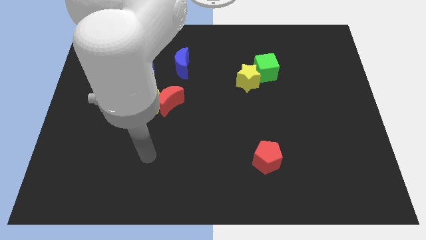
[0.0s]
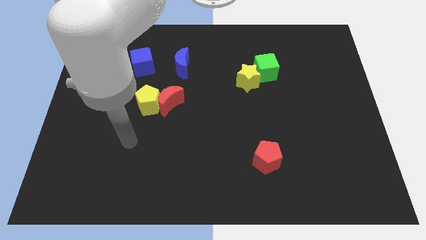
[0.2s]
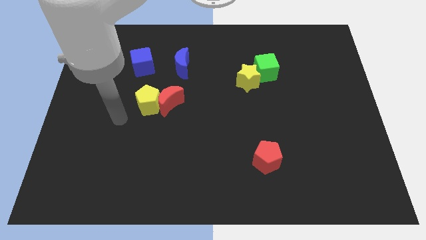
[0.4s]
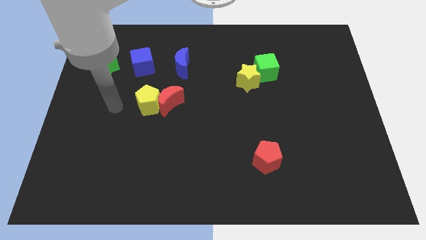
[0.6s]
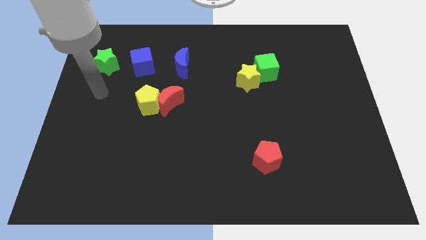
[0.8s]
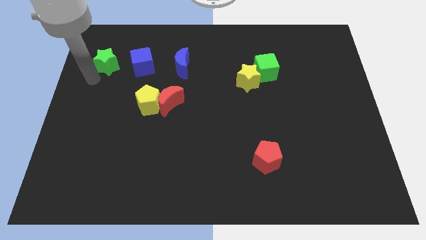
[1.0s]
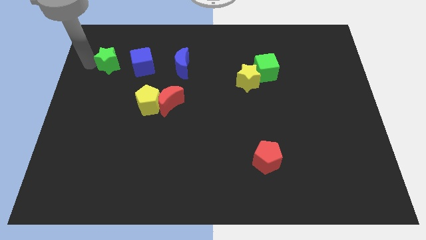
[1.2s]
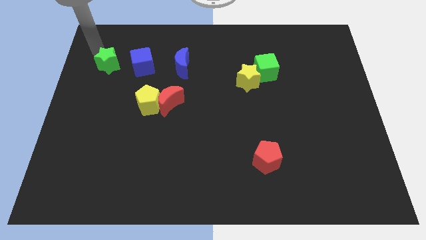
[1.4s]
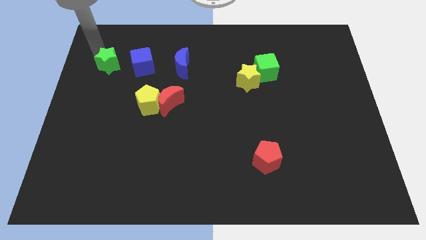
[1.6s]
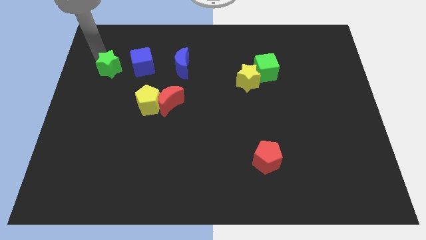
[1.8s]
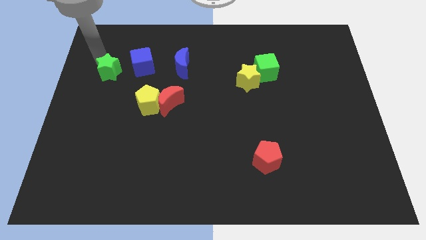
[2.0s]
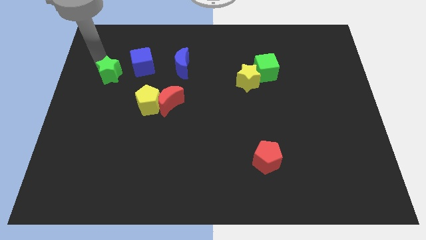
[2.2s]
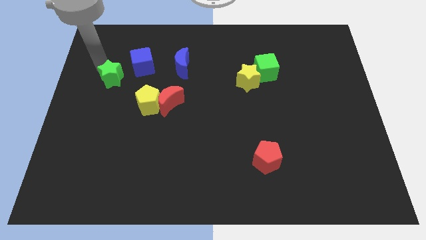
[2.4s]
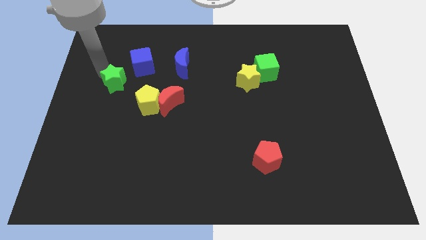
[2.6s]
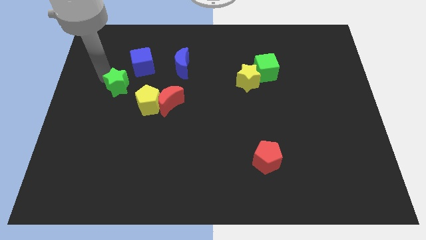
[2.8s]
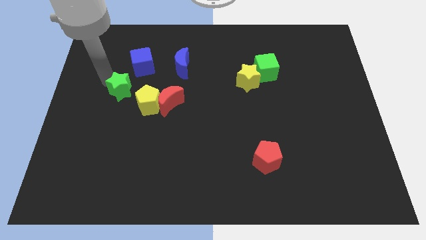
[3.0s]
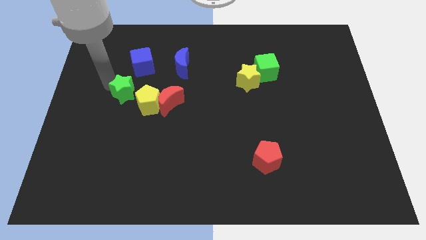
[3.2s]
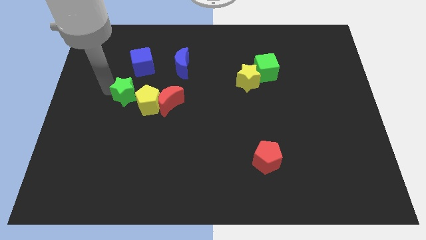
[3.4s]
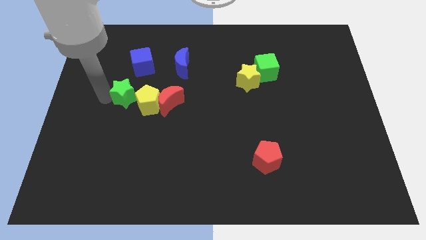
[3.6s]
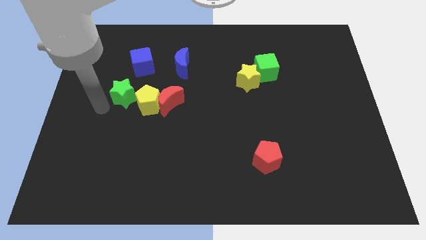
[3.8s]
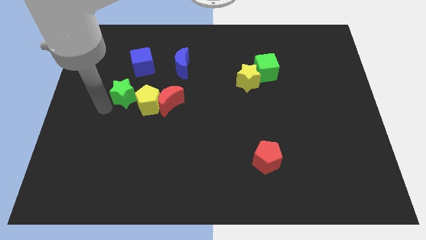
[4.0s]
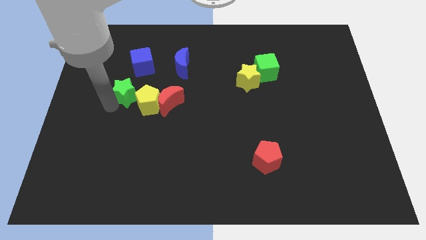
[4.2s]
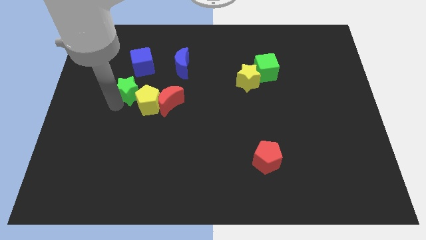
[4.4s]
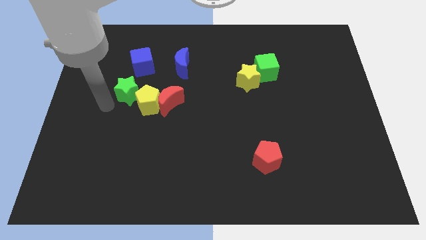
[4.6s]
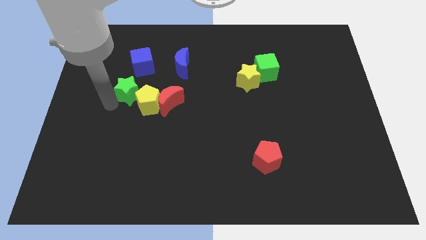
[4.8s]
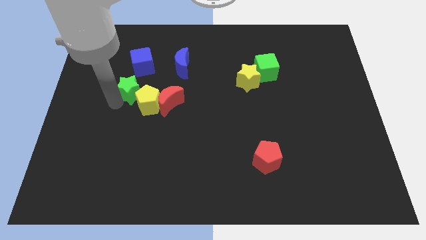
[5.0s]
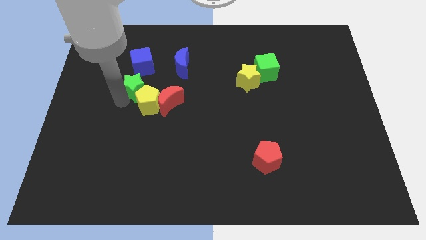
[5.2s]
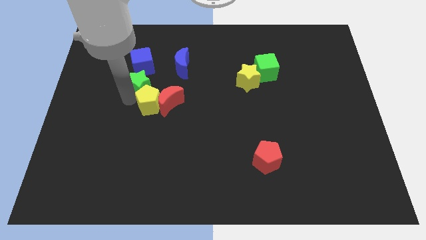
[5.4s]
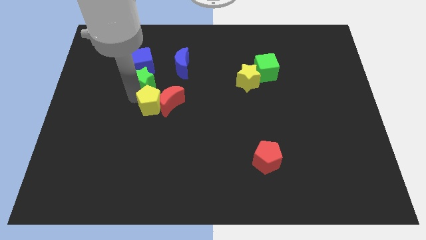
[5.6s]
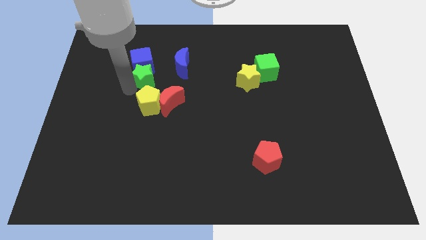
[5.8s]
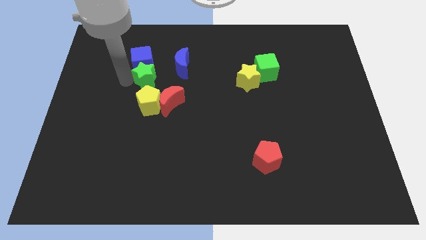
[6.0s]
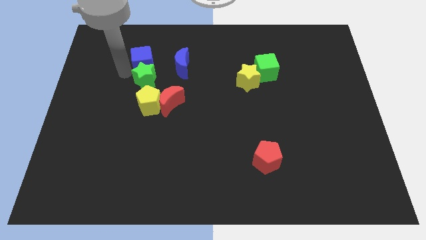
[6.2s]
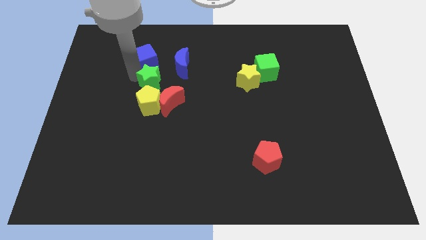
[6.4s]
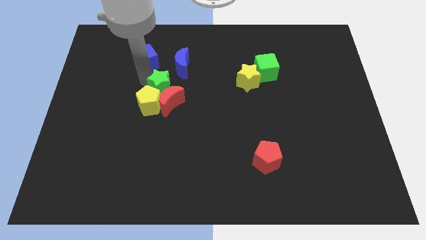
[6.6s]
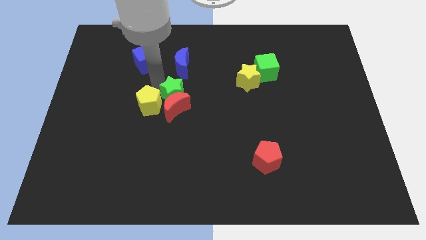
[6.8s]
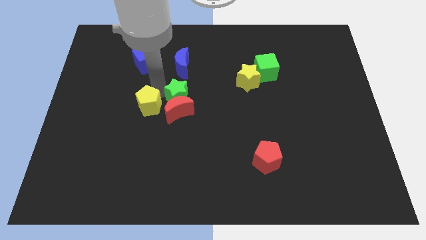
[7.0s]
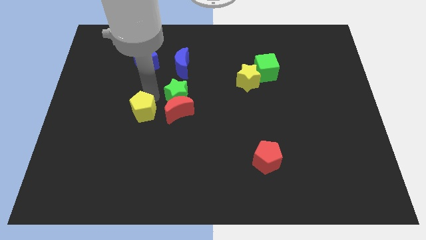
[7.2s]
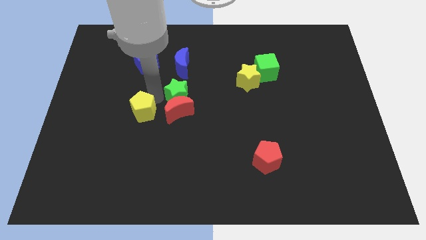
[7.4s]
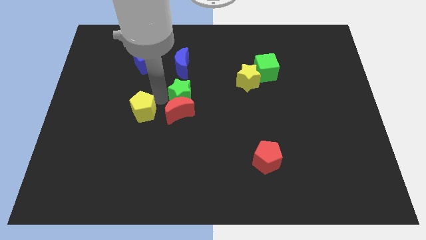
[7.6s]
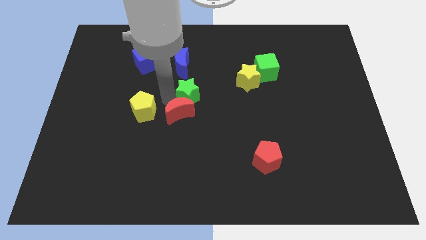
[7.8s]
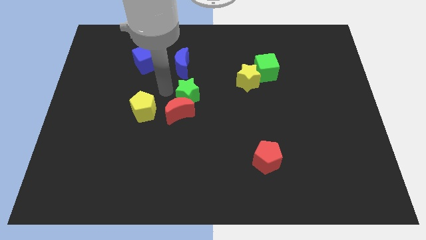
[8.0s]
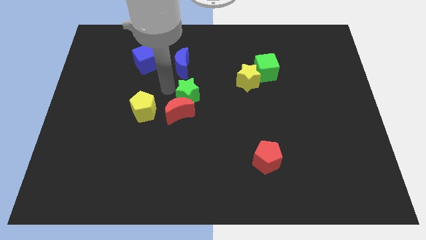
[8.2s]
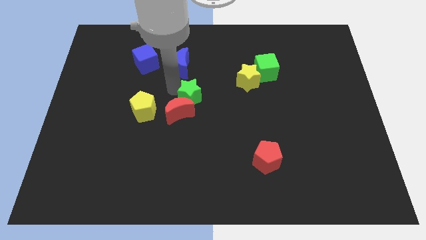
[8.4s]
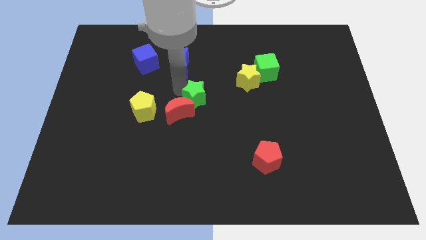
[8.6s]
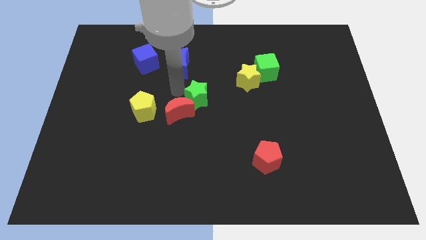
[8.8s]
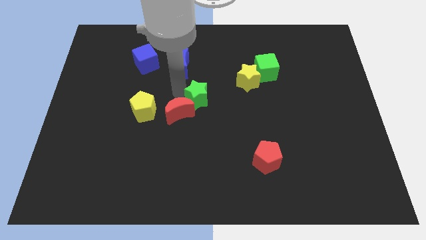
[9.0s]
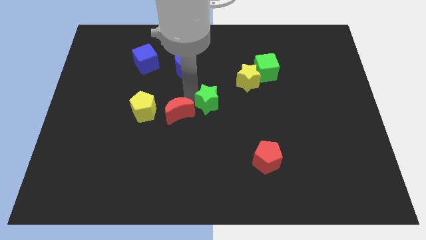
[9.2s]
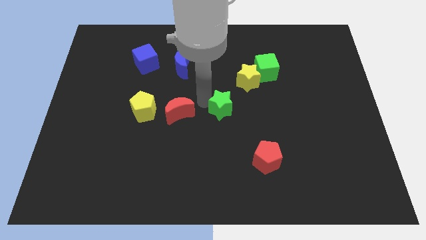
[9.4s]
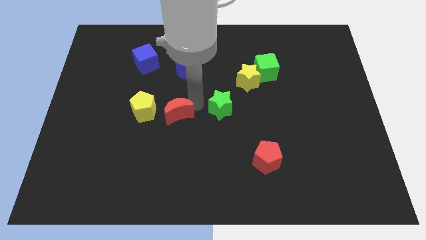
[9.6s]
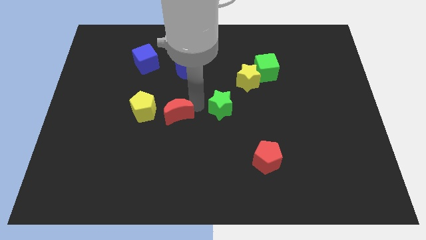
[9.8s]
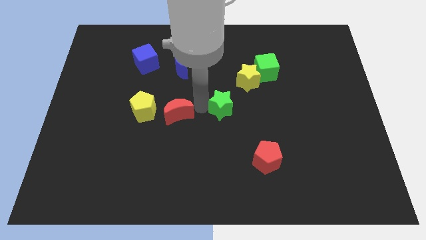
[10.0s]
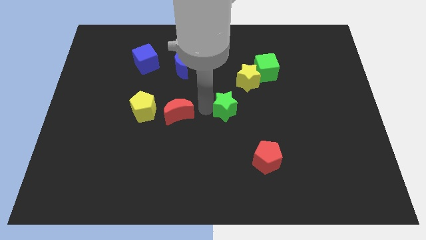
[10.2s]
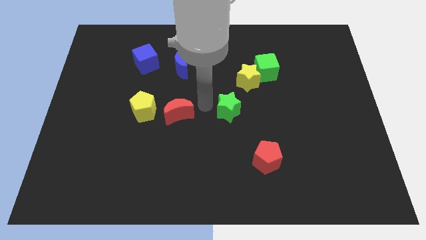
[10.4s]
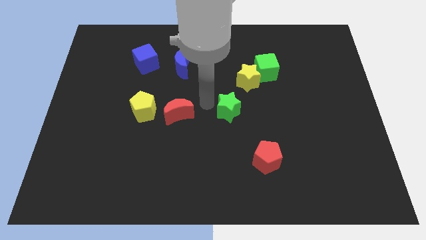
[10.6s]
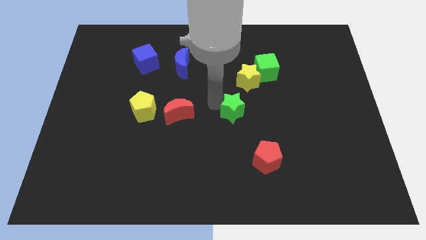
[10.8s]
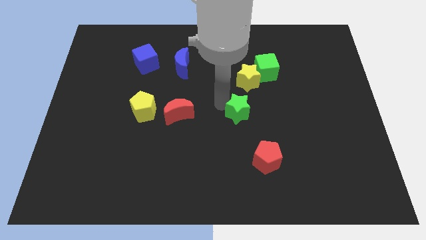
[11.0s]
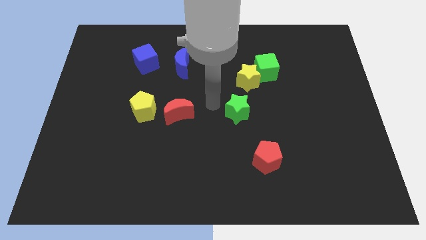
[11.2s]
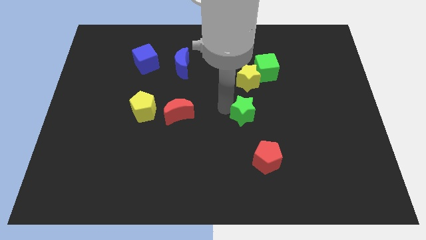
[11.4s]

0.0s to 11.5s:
move the green star above the red pentagon

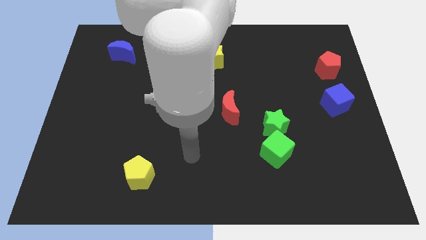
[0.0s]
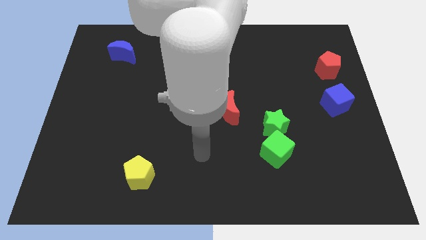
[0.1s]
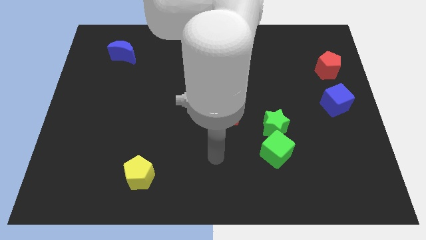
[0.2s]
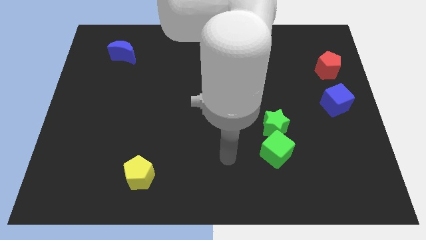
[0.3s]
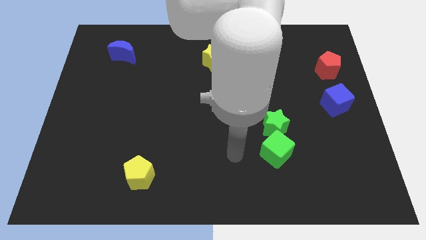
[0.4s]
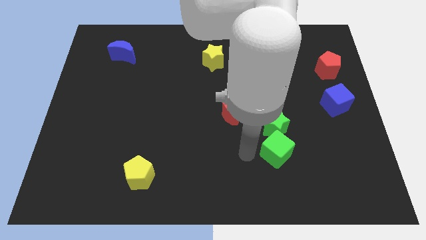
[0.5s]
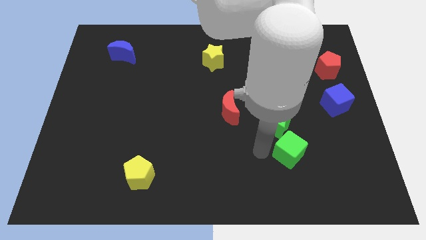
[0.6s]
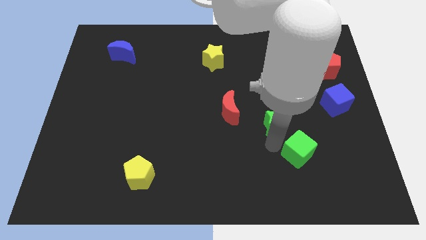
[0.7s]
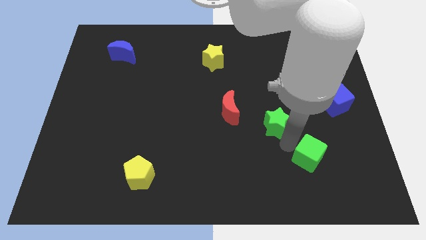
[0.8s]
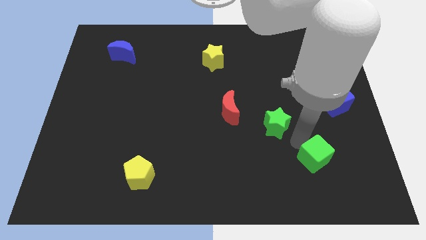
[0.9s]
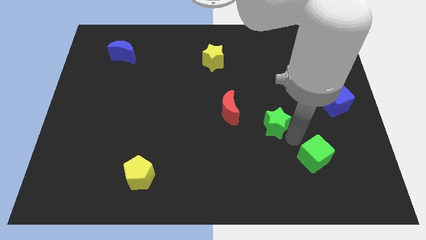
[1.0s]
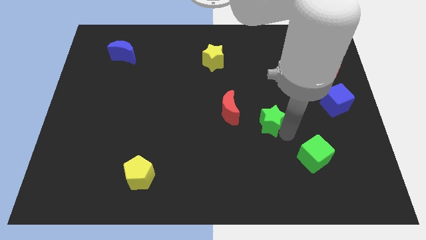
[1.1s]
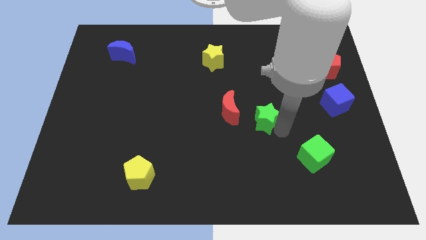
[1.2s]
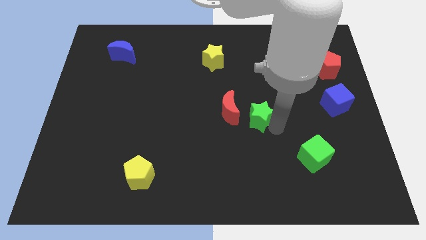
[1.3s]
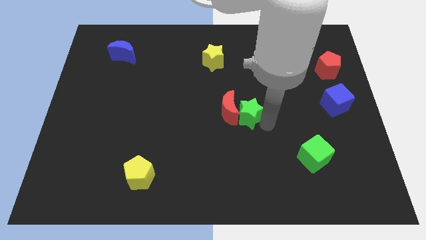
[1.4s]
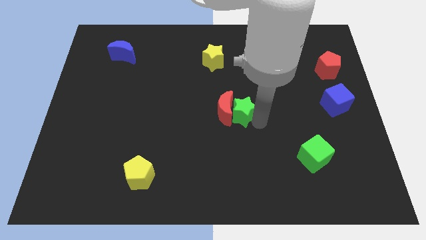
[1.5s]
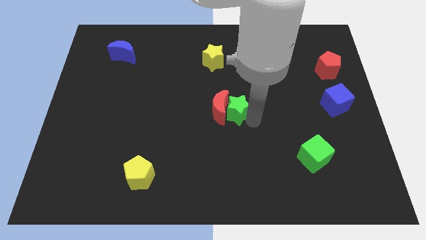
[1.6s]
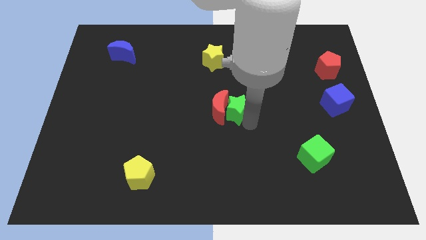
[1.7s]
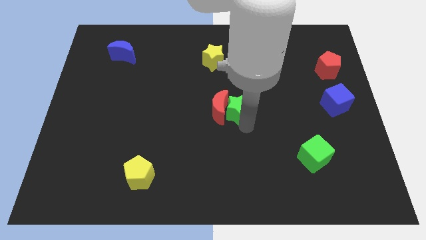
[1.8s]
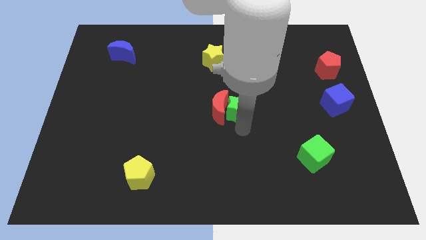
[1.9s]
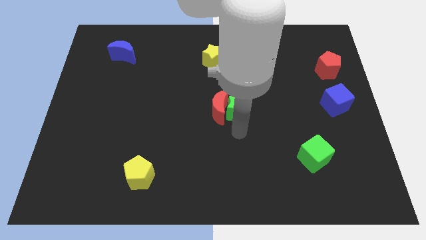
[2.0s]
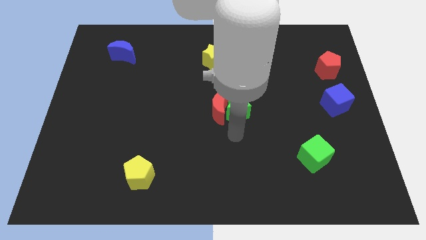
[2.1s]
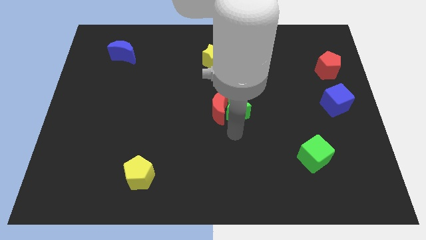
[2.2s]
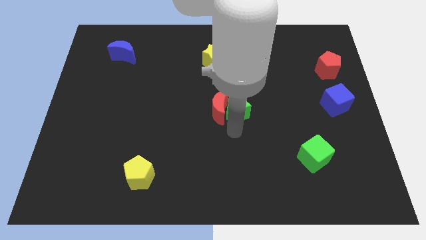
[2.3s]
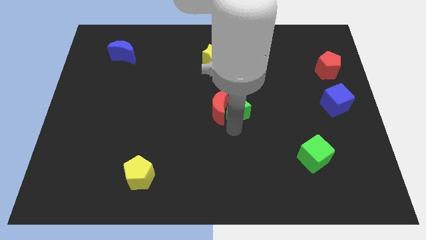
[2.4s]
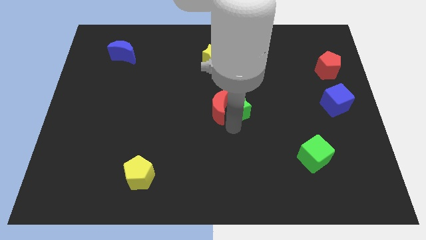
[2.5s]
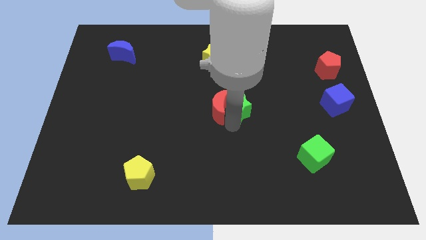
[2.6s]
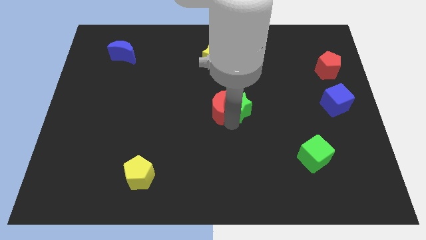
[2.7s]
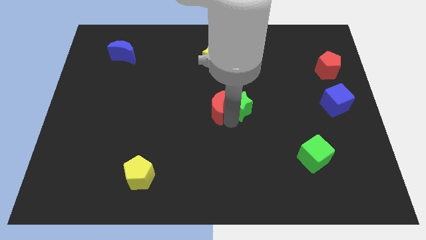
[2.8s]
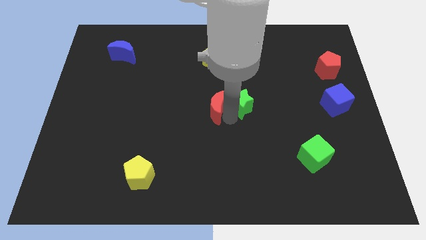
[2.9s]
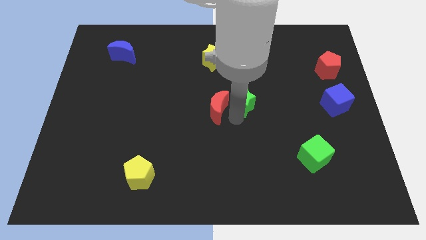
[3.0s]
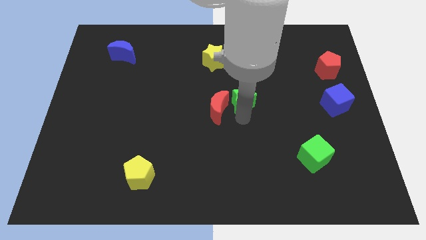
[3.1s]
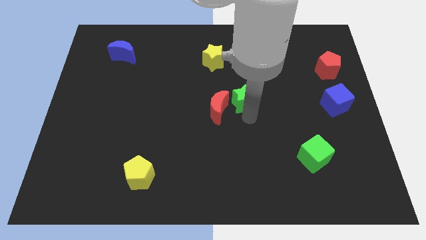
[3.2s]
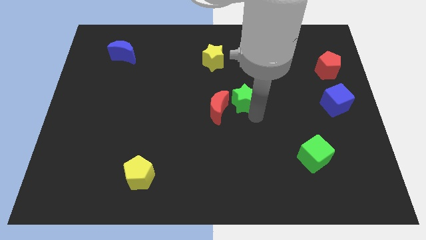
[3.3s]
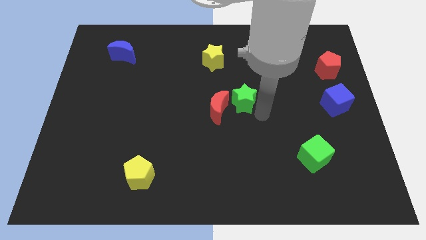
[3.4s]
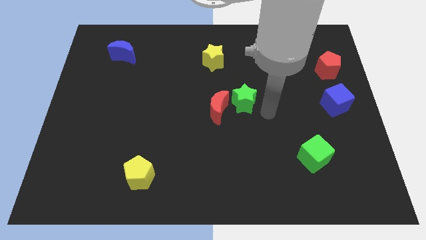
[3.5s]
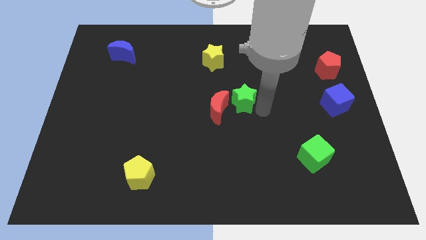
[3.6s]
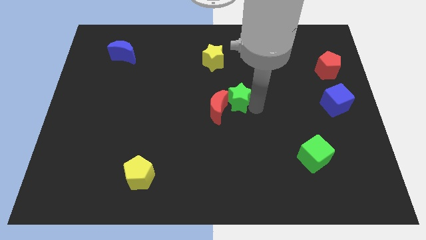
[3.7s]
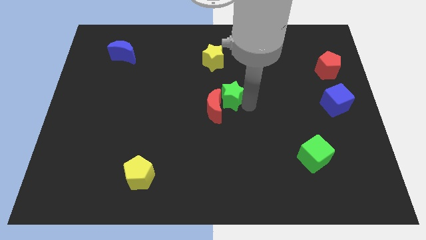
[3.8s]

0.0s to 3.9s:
put the green star to the bottom side of the yellow star
